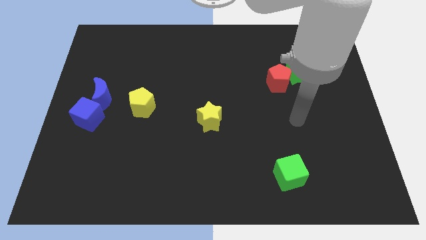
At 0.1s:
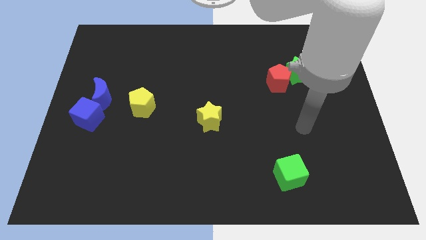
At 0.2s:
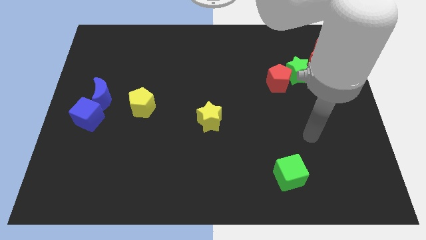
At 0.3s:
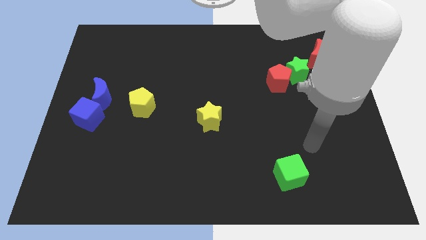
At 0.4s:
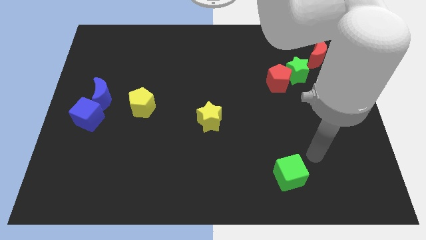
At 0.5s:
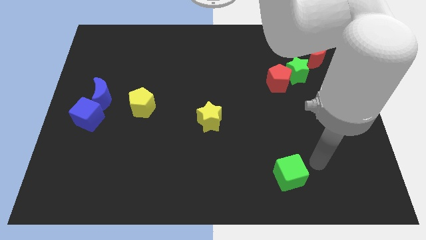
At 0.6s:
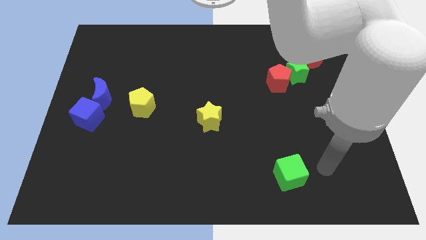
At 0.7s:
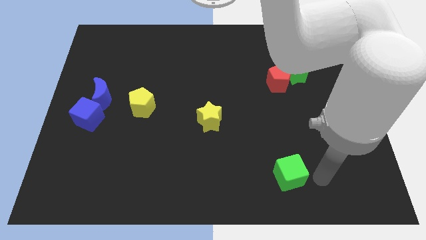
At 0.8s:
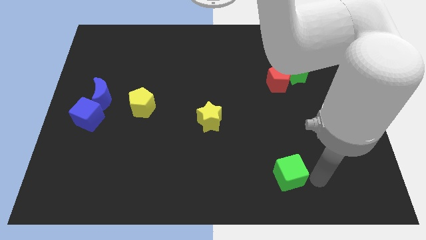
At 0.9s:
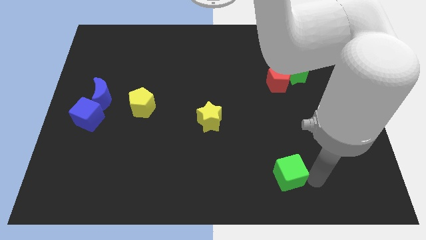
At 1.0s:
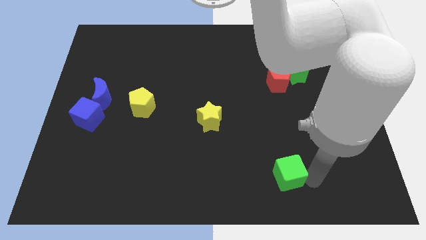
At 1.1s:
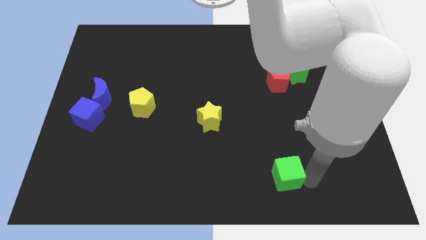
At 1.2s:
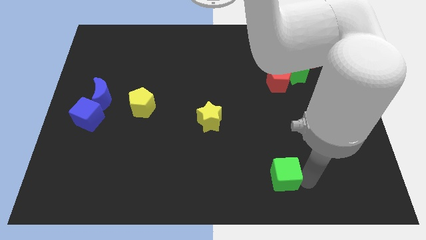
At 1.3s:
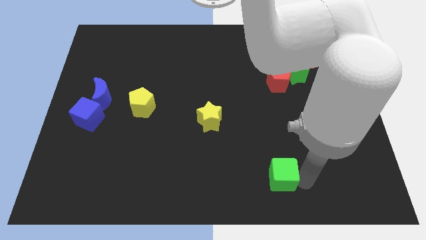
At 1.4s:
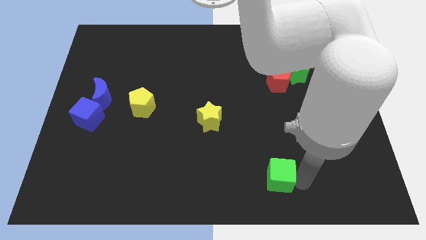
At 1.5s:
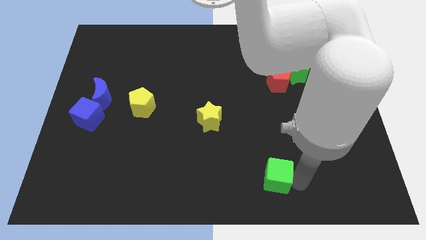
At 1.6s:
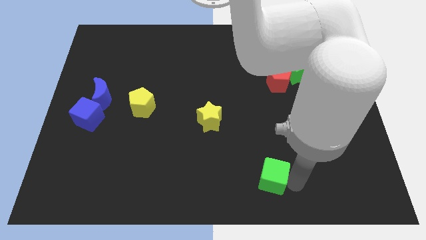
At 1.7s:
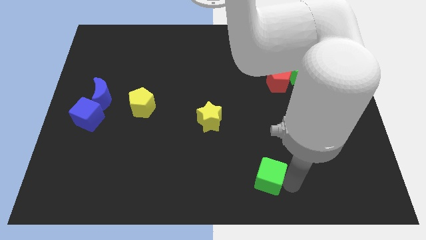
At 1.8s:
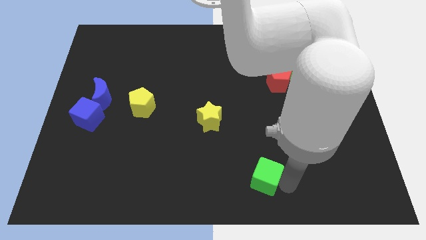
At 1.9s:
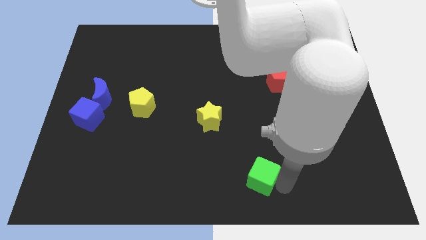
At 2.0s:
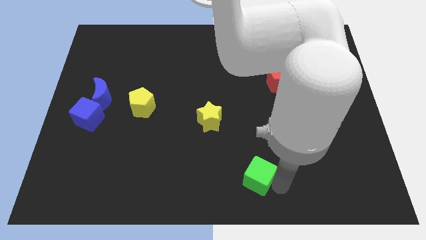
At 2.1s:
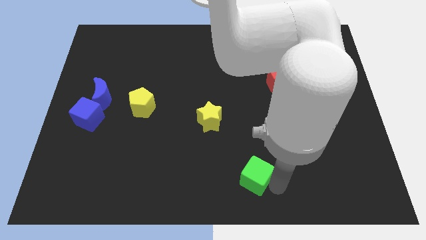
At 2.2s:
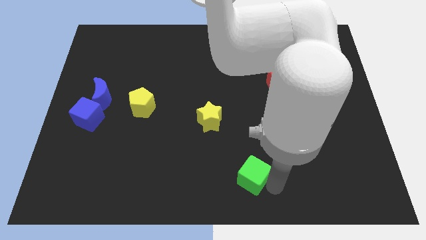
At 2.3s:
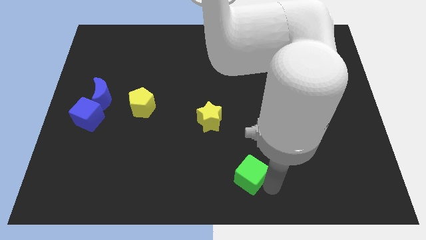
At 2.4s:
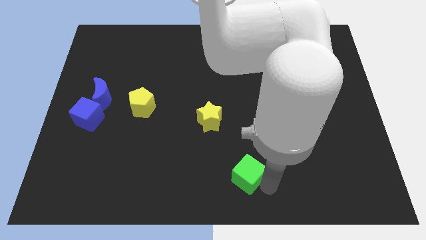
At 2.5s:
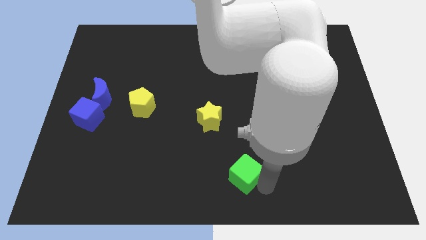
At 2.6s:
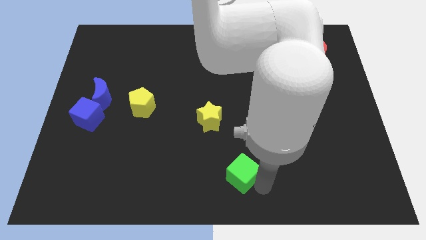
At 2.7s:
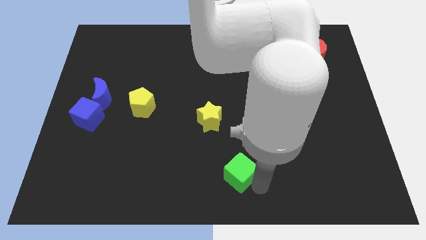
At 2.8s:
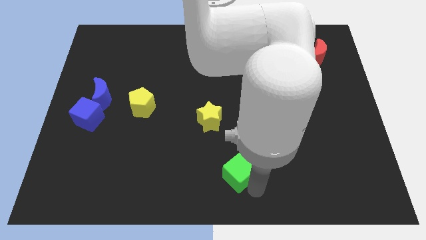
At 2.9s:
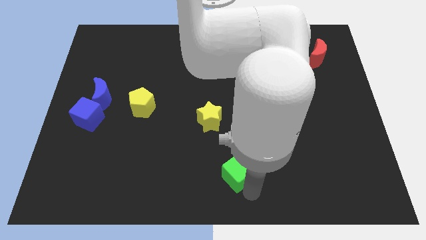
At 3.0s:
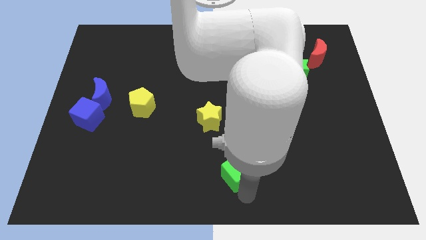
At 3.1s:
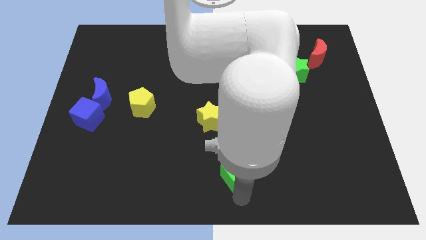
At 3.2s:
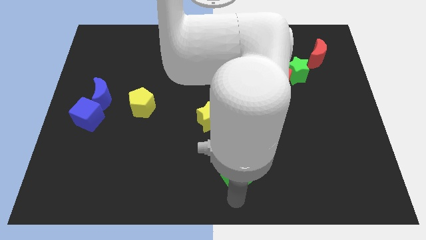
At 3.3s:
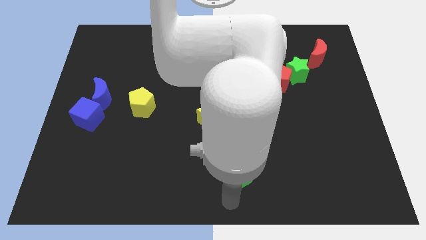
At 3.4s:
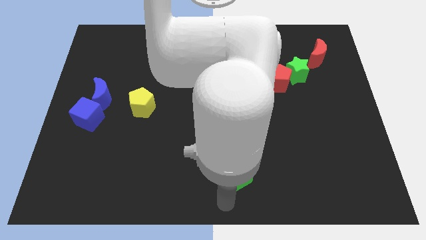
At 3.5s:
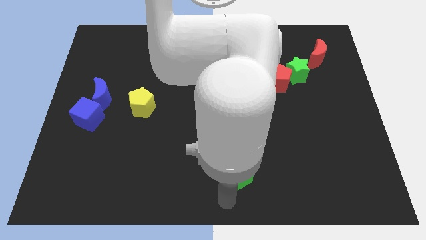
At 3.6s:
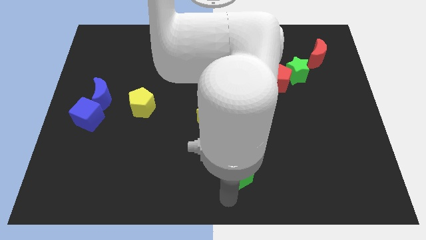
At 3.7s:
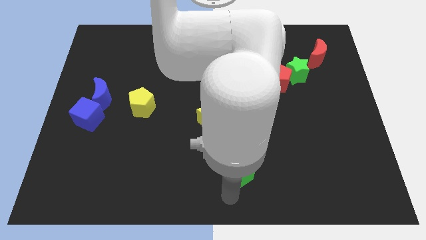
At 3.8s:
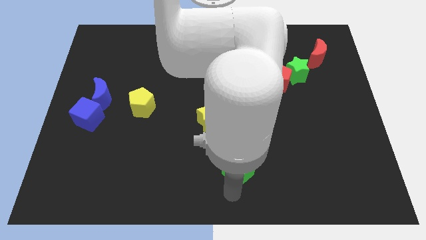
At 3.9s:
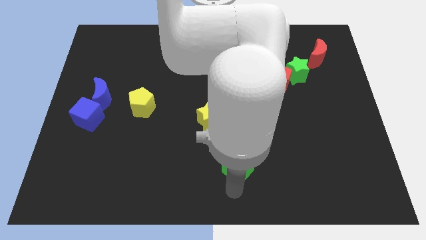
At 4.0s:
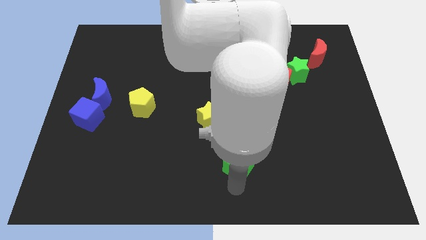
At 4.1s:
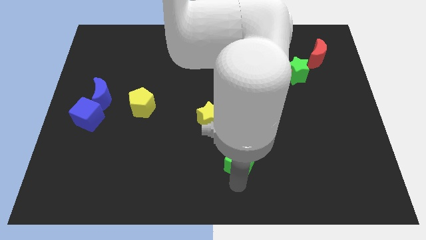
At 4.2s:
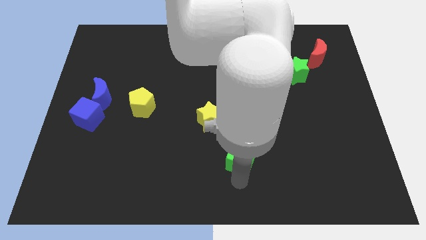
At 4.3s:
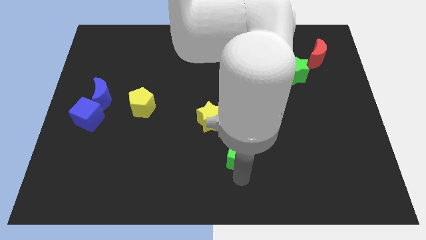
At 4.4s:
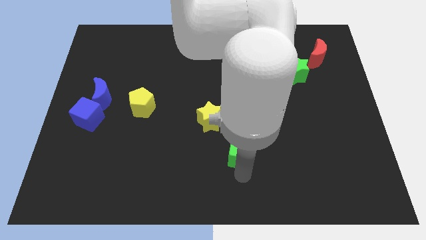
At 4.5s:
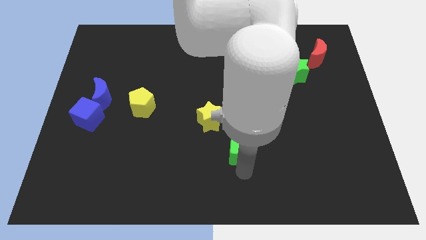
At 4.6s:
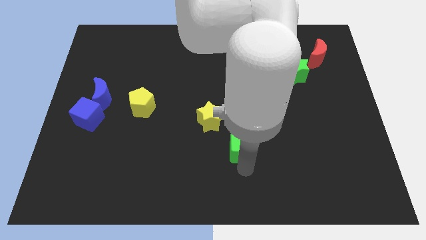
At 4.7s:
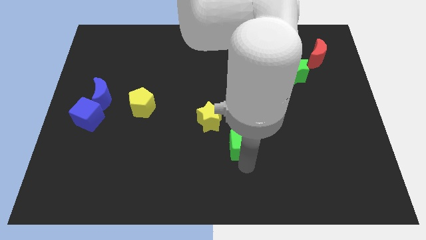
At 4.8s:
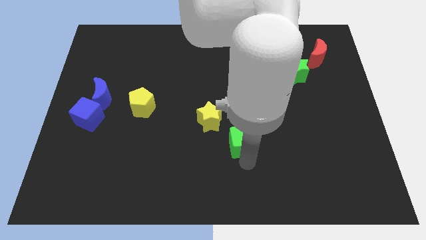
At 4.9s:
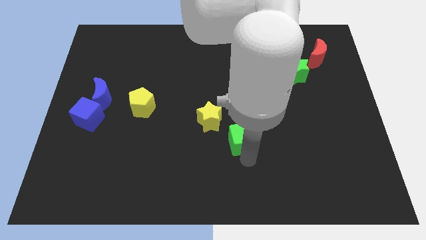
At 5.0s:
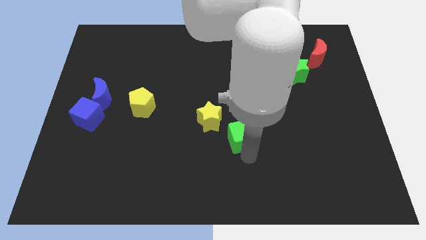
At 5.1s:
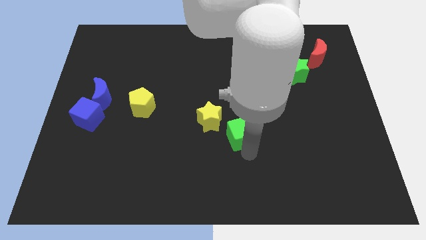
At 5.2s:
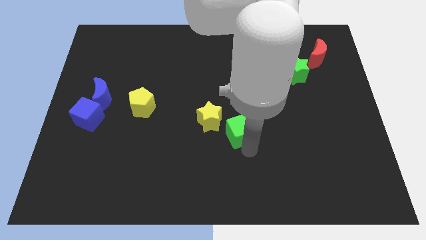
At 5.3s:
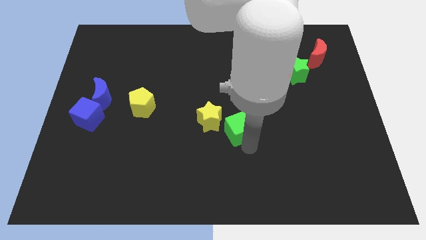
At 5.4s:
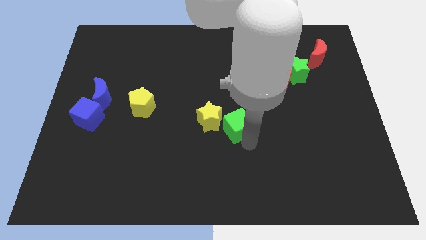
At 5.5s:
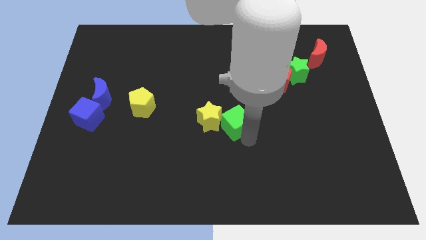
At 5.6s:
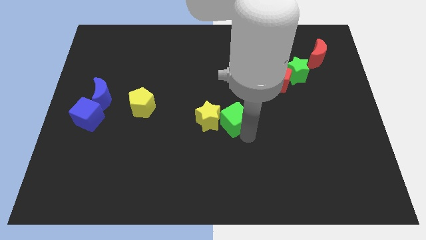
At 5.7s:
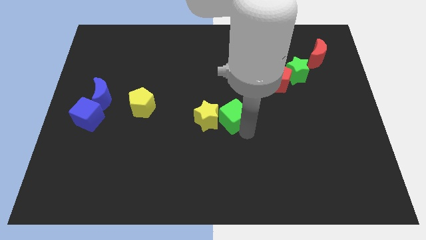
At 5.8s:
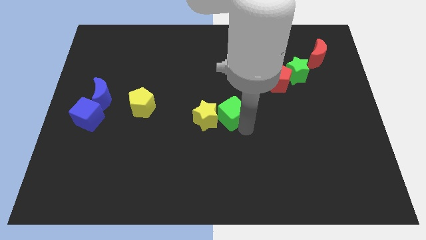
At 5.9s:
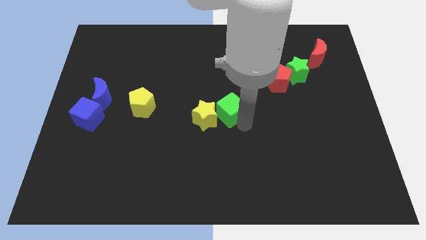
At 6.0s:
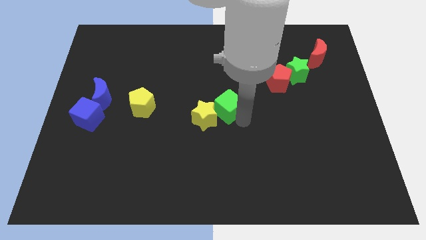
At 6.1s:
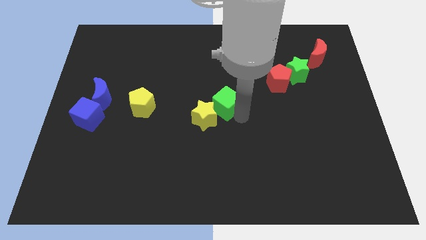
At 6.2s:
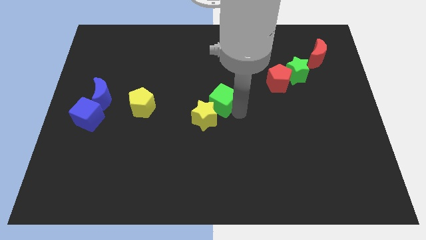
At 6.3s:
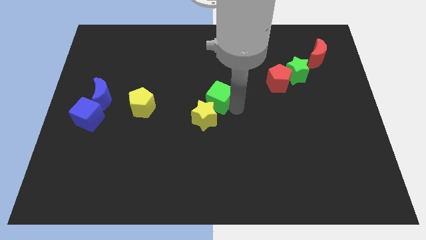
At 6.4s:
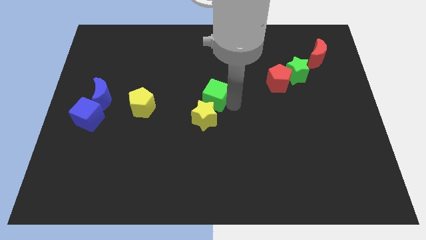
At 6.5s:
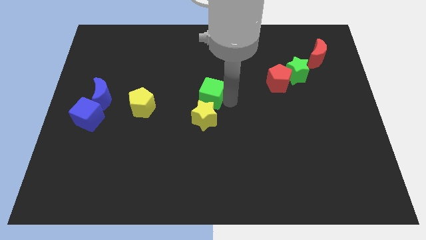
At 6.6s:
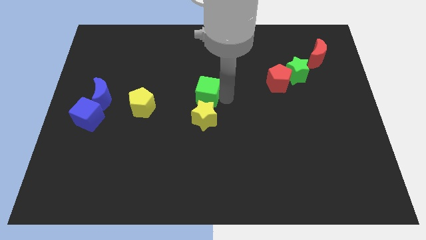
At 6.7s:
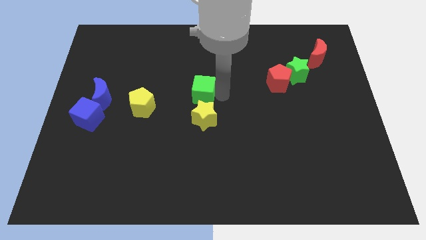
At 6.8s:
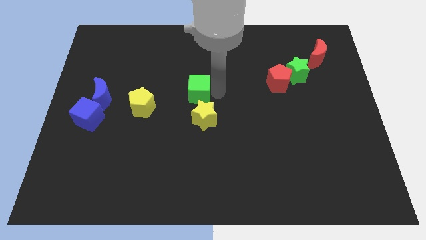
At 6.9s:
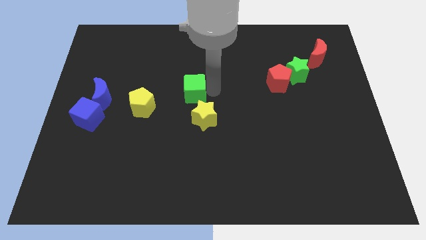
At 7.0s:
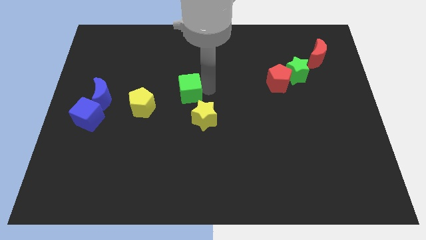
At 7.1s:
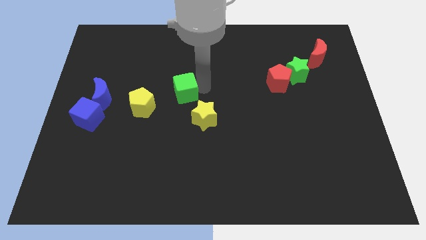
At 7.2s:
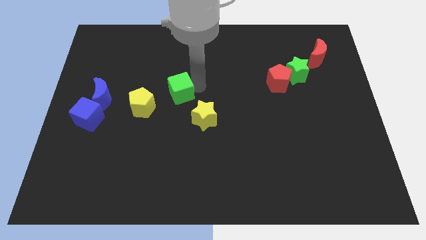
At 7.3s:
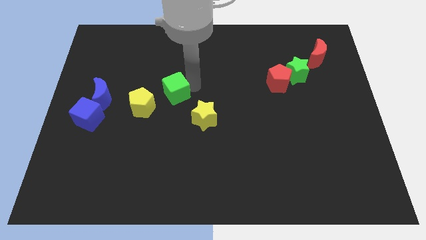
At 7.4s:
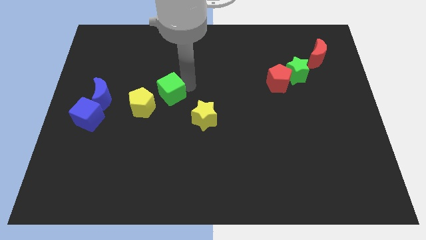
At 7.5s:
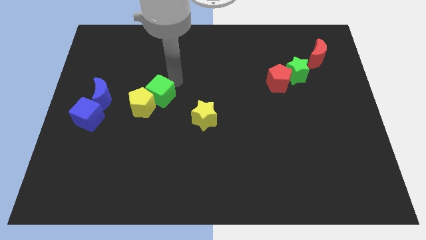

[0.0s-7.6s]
slide the green cube to the yellow pentagon
